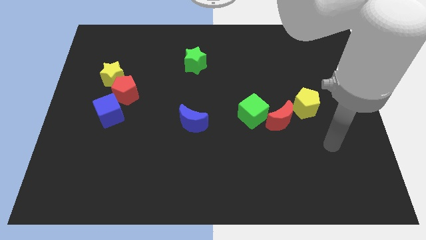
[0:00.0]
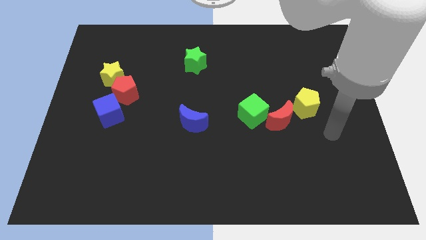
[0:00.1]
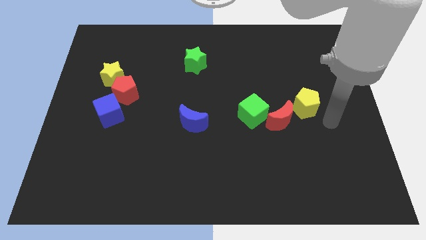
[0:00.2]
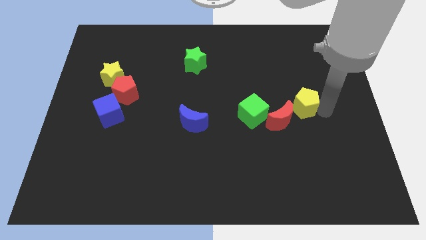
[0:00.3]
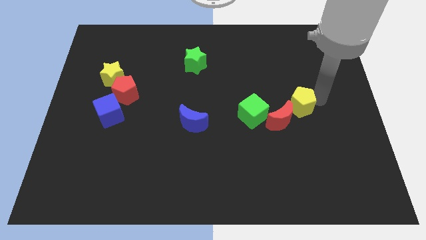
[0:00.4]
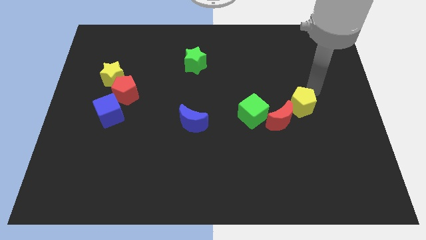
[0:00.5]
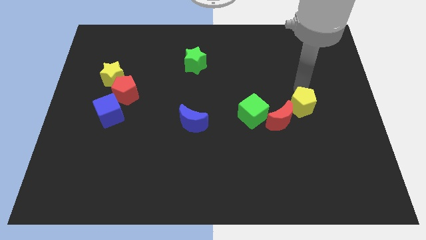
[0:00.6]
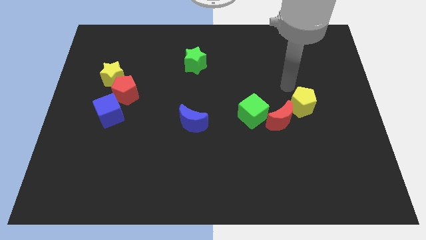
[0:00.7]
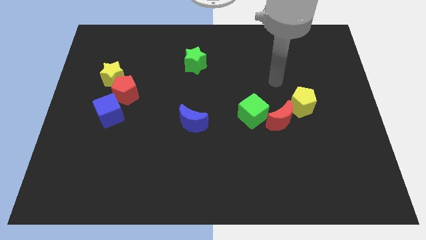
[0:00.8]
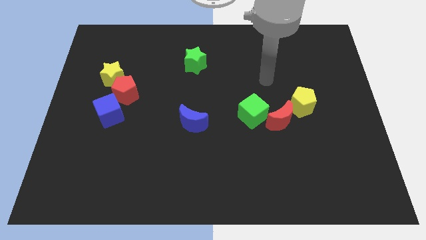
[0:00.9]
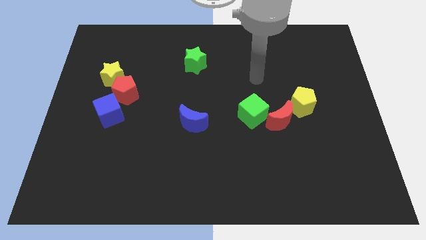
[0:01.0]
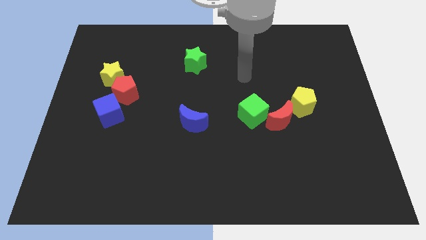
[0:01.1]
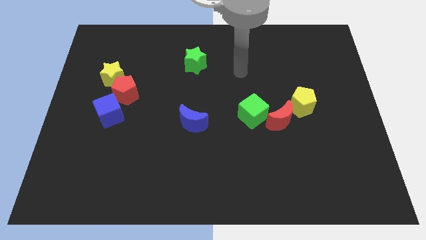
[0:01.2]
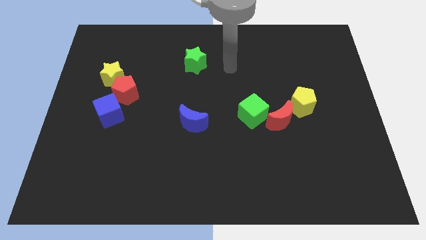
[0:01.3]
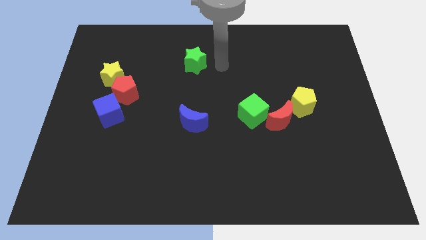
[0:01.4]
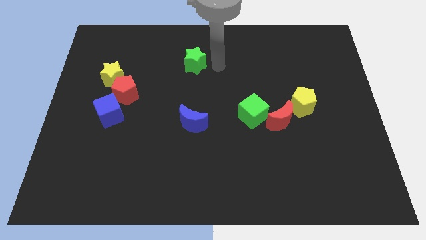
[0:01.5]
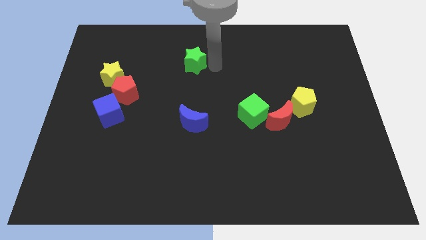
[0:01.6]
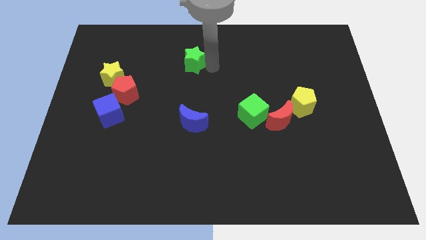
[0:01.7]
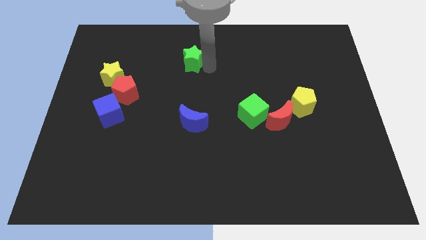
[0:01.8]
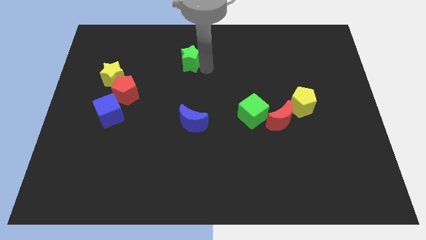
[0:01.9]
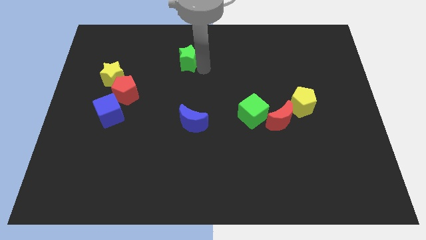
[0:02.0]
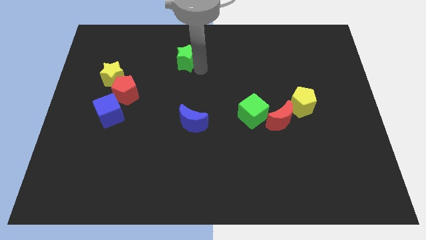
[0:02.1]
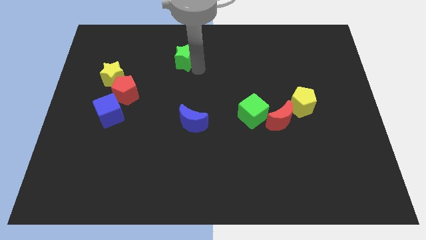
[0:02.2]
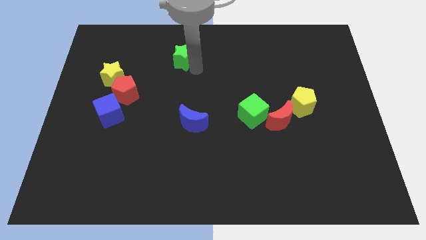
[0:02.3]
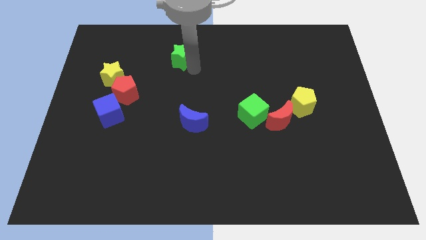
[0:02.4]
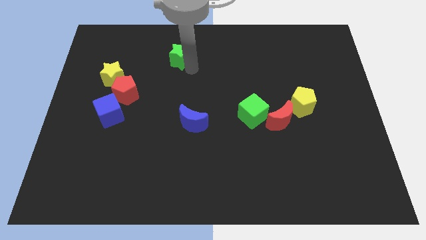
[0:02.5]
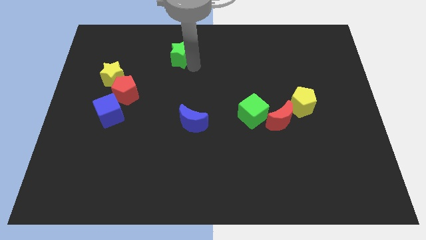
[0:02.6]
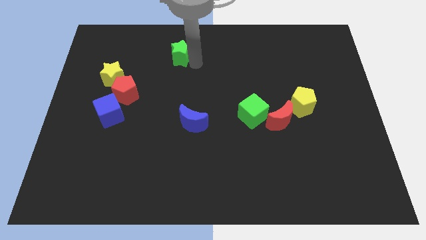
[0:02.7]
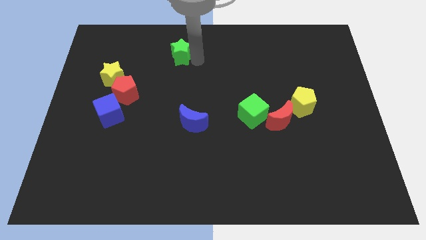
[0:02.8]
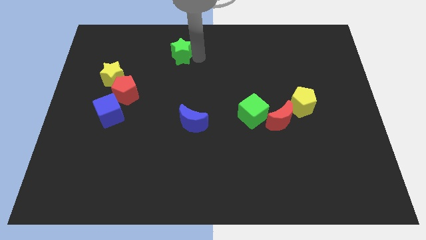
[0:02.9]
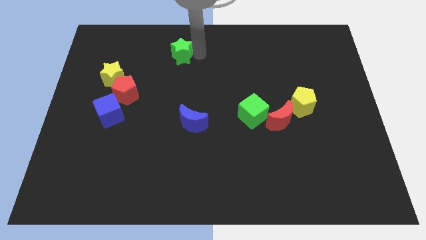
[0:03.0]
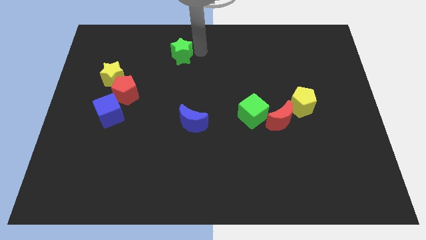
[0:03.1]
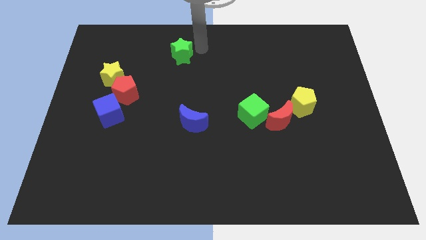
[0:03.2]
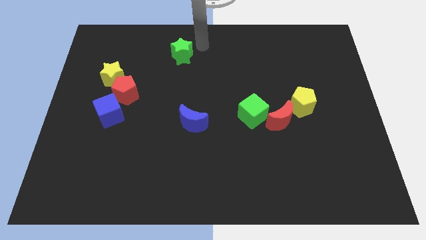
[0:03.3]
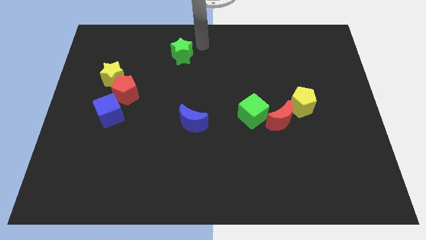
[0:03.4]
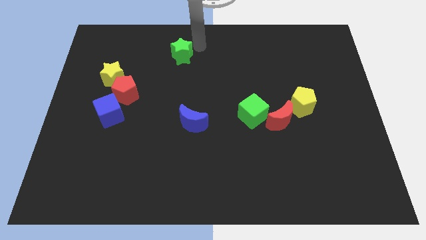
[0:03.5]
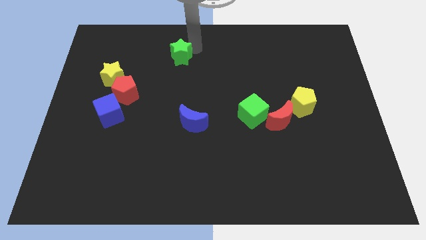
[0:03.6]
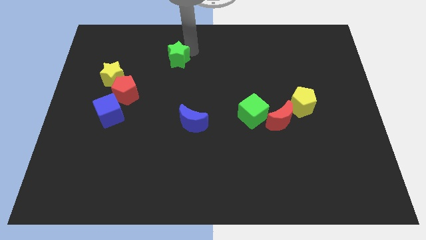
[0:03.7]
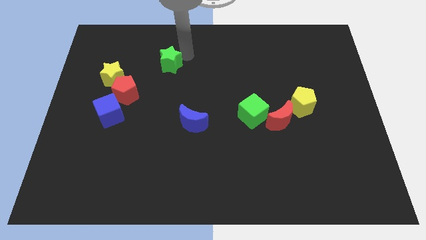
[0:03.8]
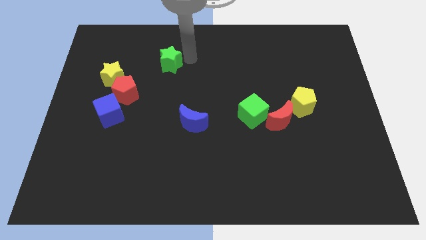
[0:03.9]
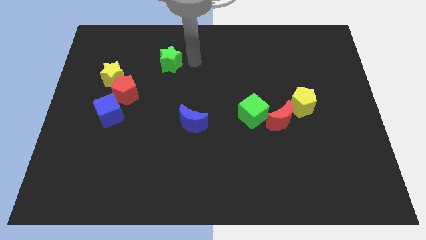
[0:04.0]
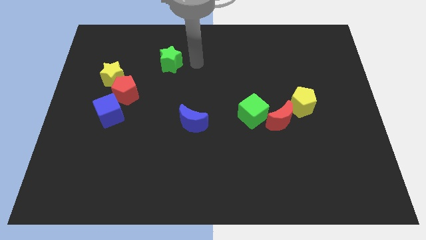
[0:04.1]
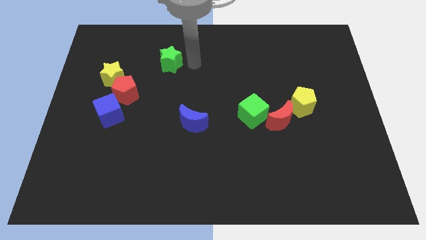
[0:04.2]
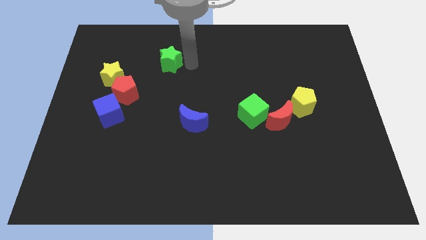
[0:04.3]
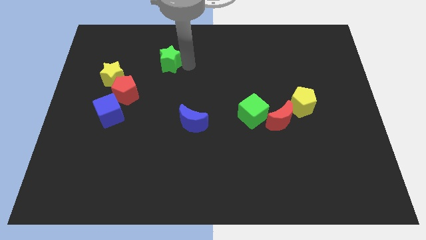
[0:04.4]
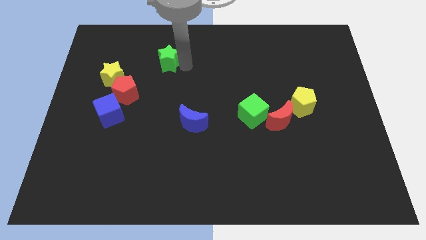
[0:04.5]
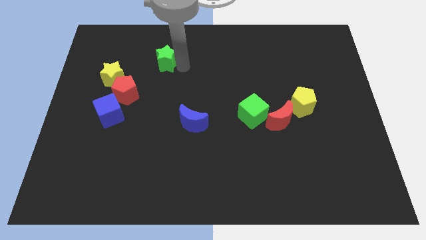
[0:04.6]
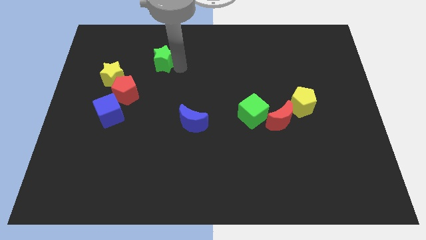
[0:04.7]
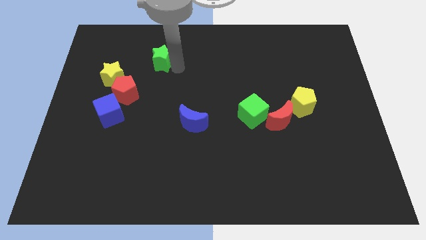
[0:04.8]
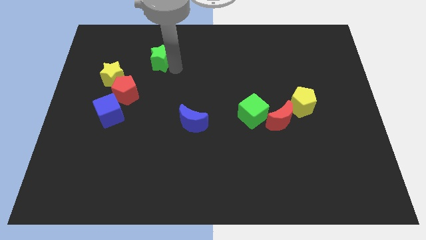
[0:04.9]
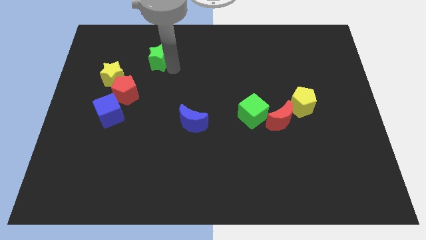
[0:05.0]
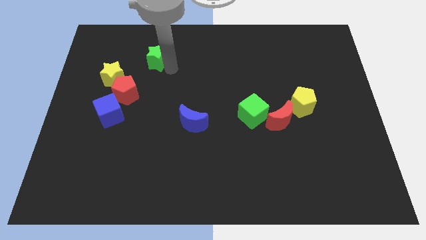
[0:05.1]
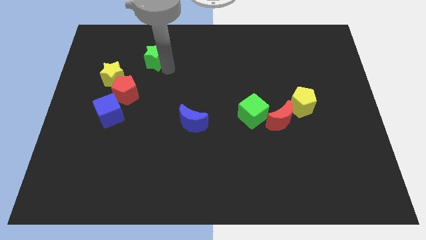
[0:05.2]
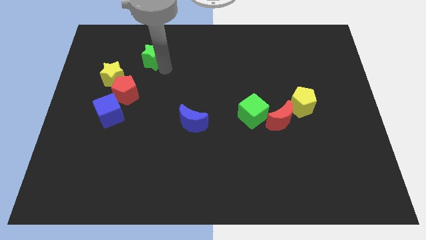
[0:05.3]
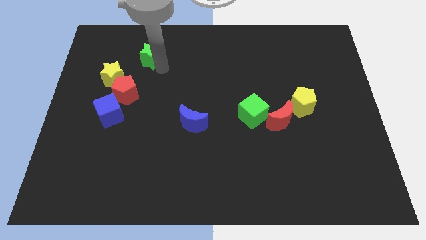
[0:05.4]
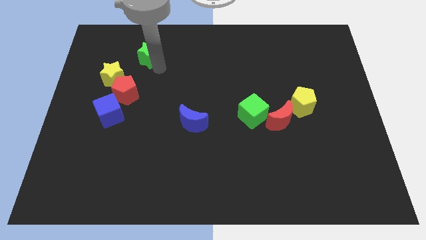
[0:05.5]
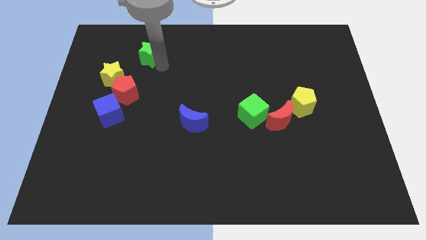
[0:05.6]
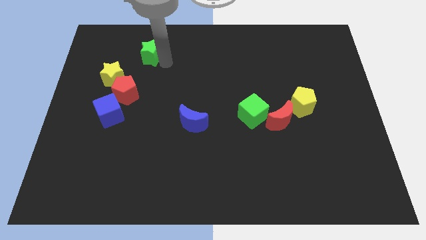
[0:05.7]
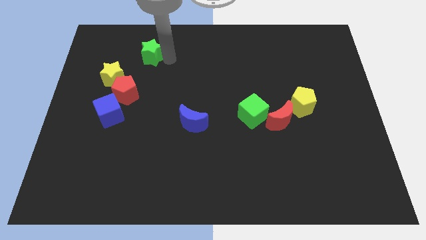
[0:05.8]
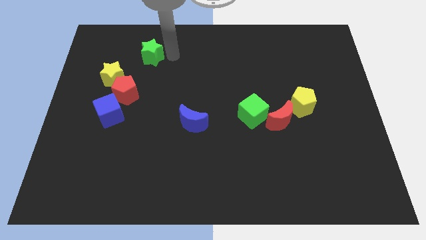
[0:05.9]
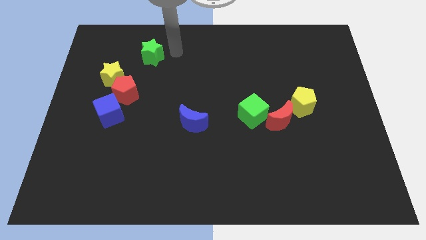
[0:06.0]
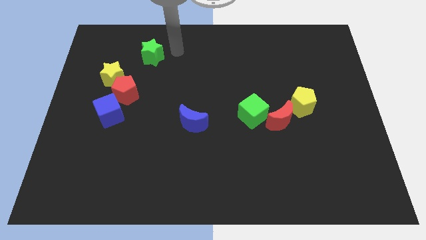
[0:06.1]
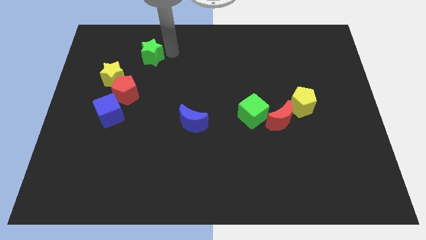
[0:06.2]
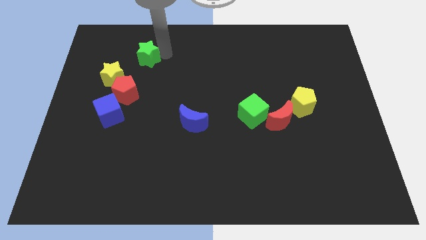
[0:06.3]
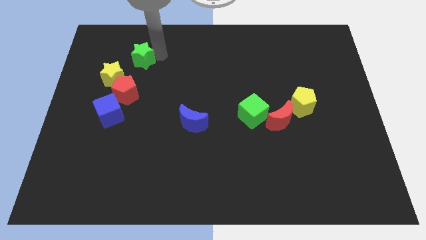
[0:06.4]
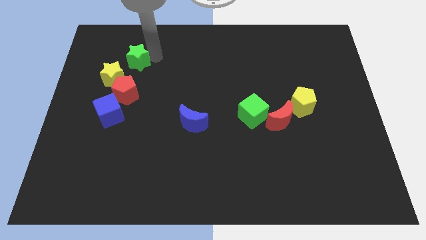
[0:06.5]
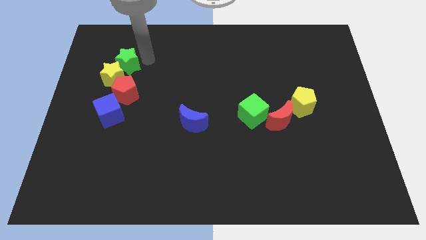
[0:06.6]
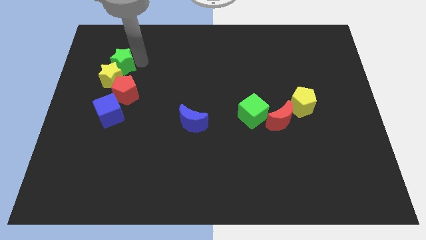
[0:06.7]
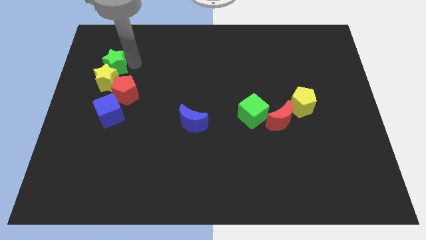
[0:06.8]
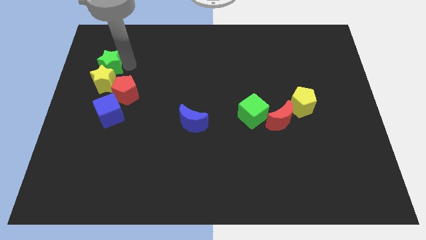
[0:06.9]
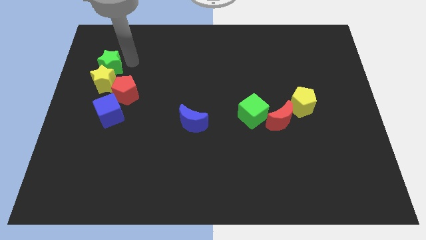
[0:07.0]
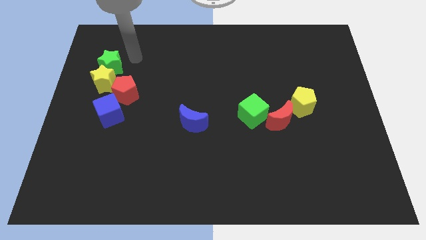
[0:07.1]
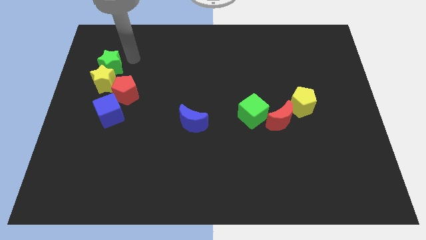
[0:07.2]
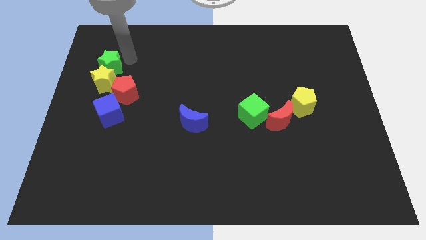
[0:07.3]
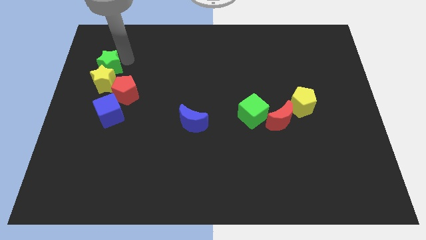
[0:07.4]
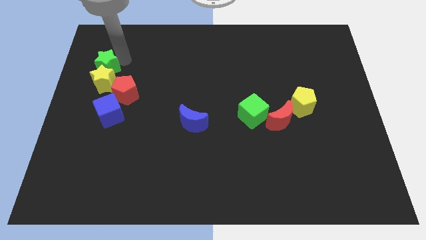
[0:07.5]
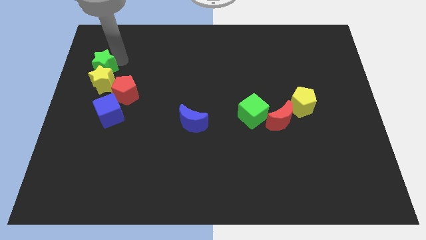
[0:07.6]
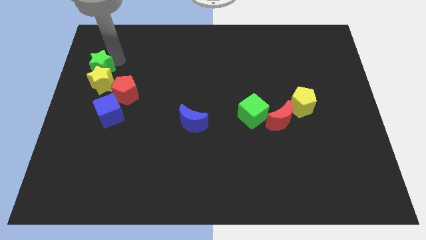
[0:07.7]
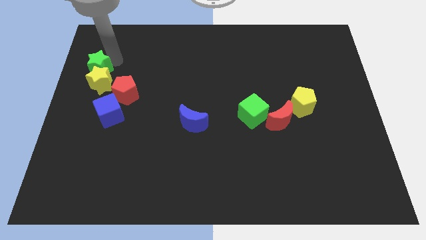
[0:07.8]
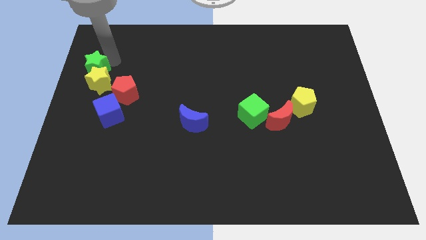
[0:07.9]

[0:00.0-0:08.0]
slide the green star to the left side
